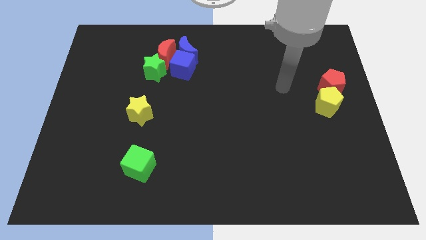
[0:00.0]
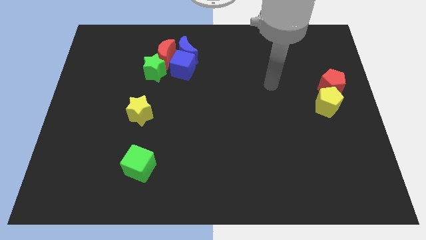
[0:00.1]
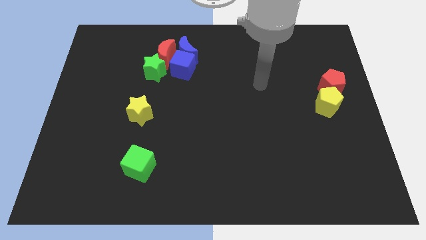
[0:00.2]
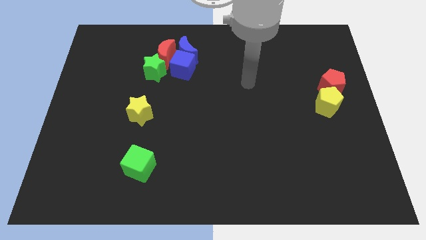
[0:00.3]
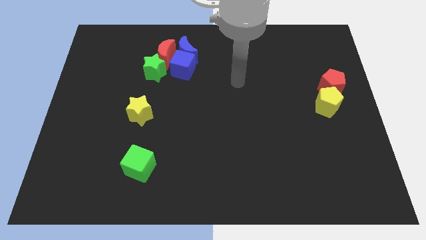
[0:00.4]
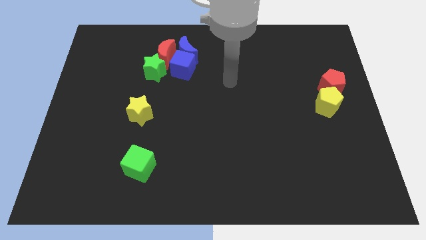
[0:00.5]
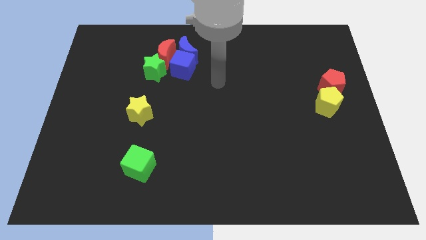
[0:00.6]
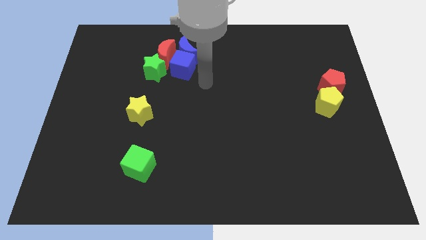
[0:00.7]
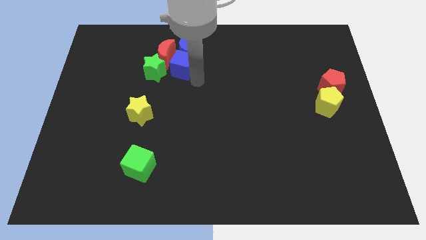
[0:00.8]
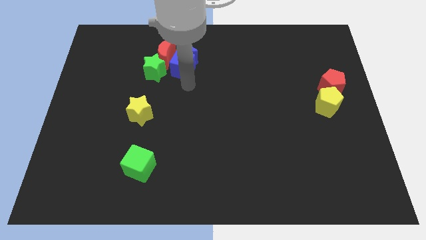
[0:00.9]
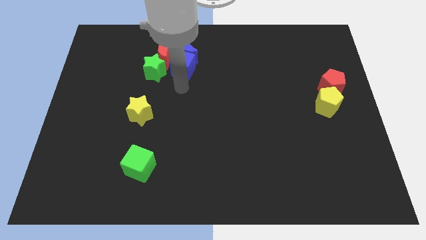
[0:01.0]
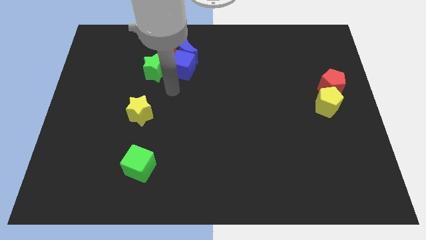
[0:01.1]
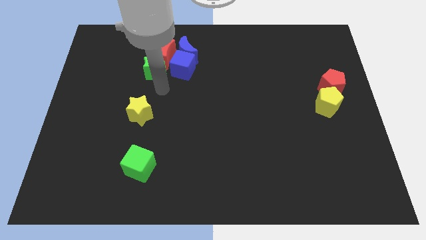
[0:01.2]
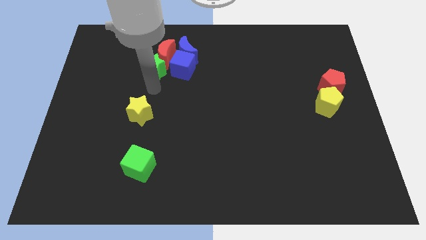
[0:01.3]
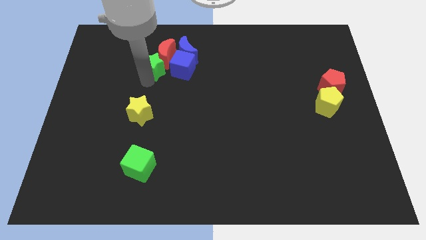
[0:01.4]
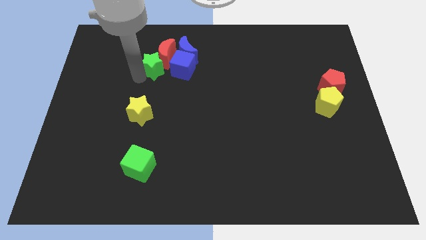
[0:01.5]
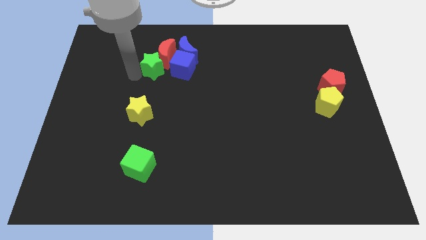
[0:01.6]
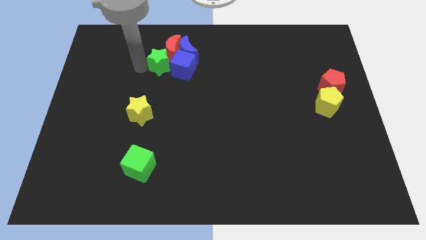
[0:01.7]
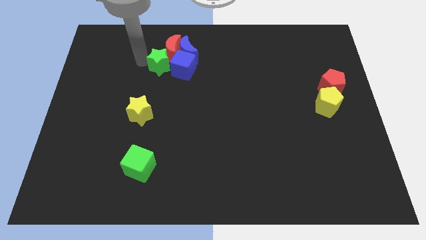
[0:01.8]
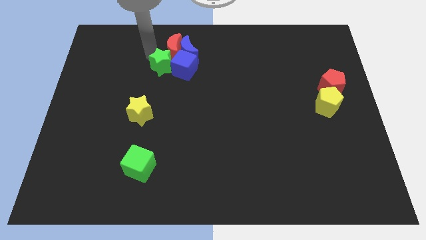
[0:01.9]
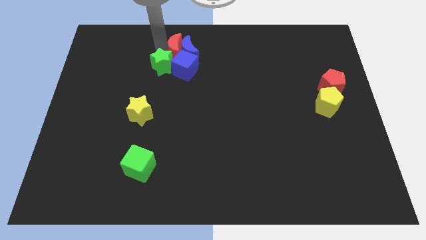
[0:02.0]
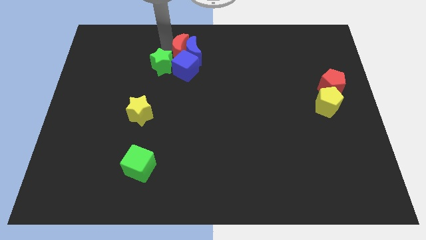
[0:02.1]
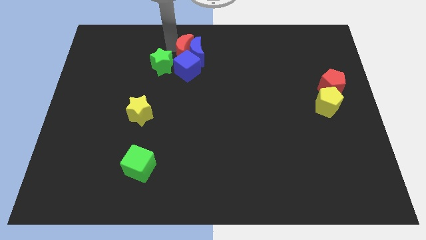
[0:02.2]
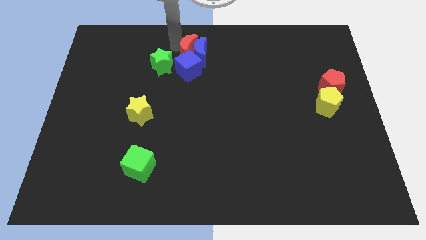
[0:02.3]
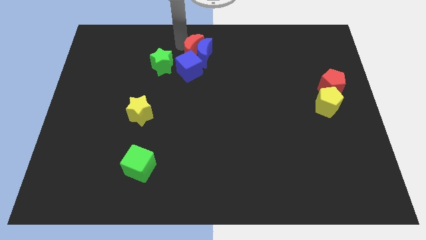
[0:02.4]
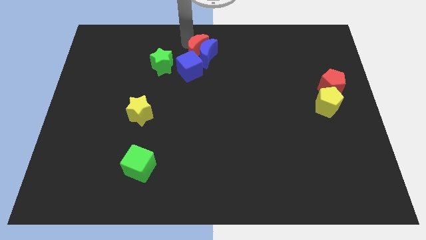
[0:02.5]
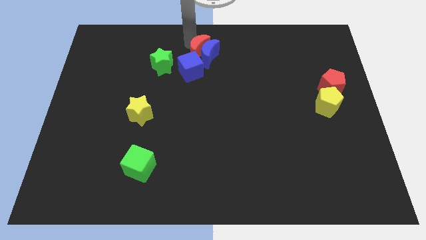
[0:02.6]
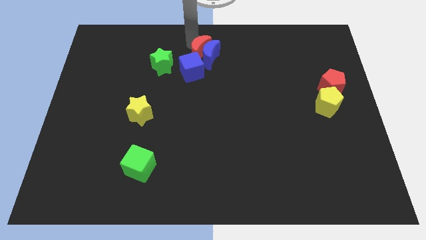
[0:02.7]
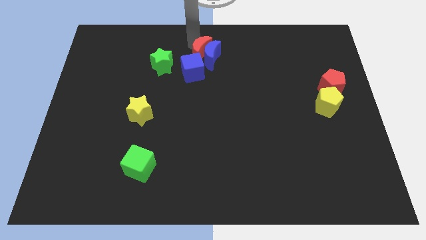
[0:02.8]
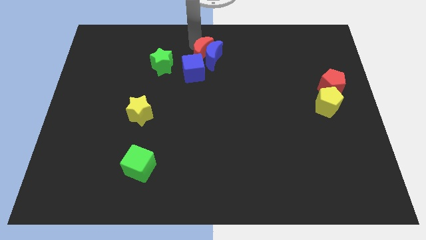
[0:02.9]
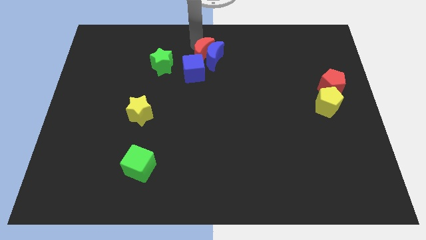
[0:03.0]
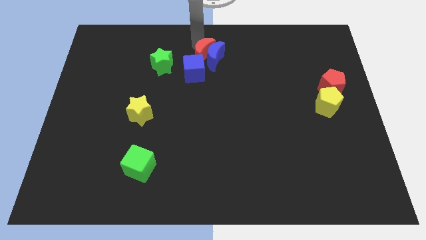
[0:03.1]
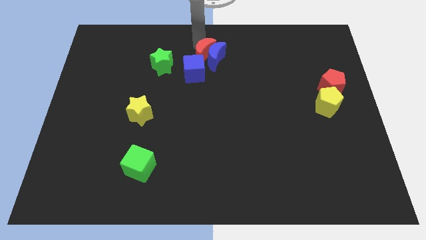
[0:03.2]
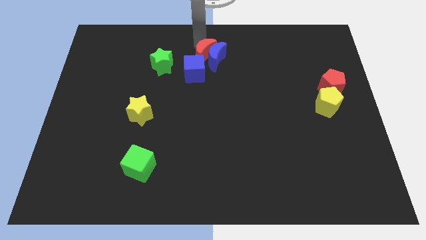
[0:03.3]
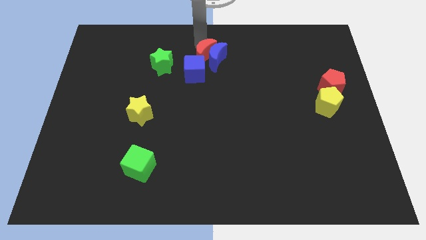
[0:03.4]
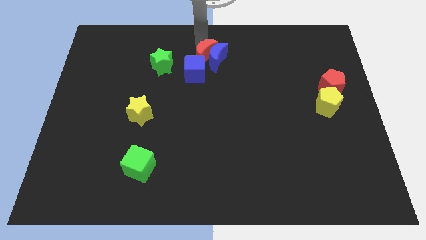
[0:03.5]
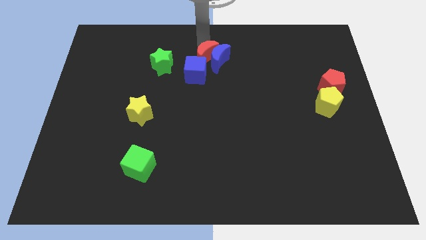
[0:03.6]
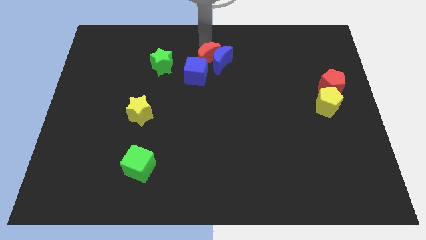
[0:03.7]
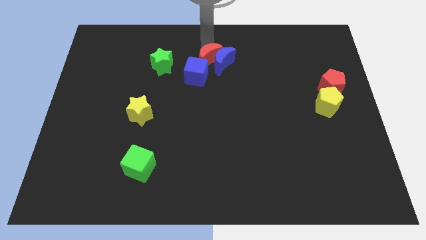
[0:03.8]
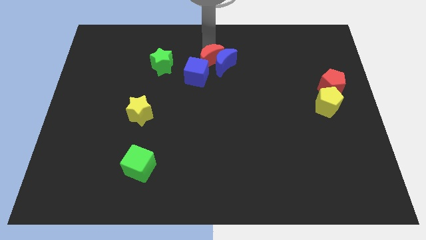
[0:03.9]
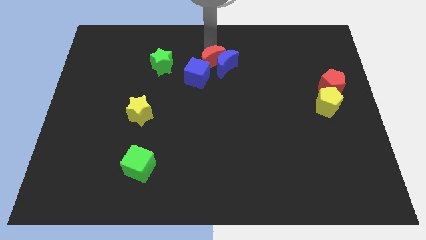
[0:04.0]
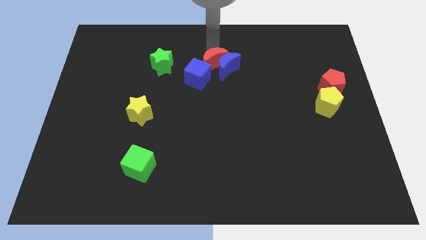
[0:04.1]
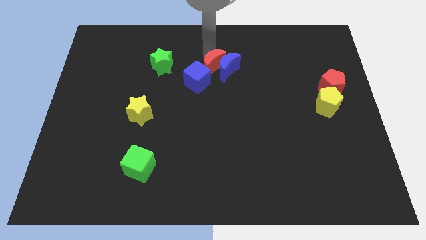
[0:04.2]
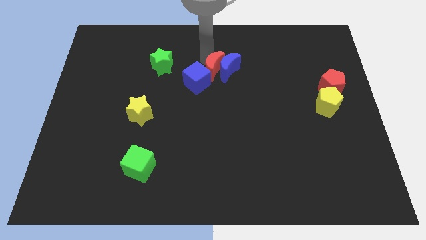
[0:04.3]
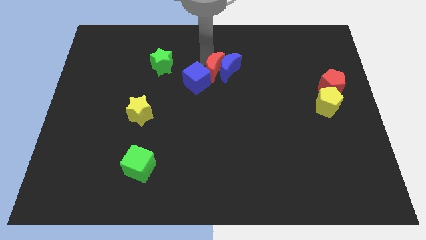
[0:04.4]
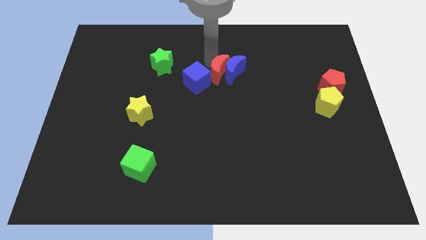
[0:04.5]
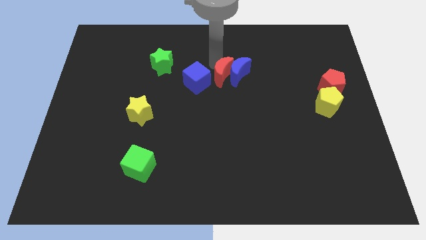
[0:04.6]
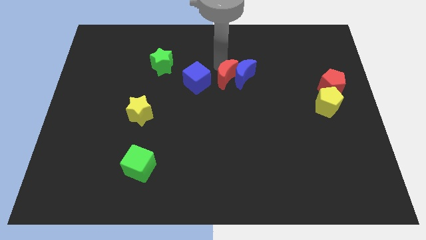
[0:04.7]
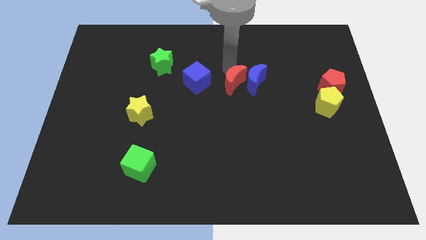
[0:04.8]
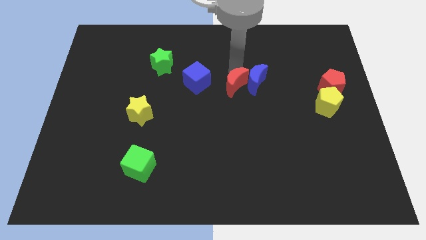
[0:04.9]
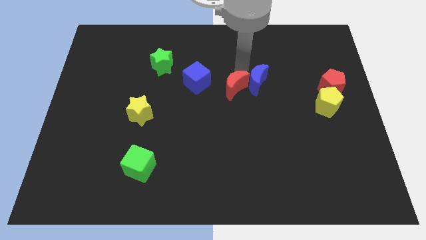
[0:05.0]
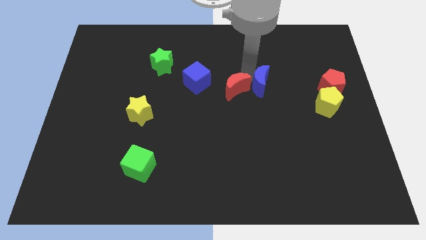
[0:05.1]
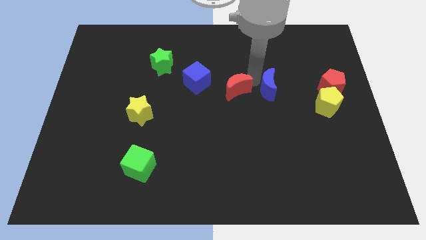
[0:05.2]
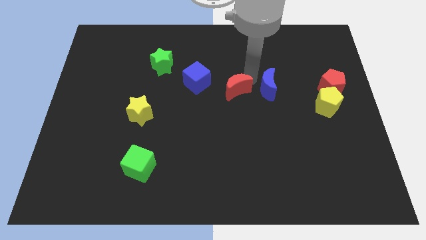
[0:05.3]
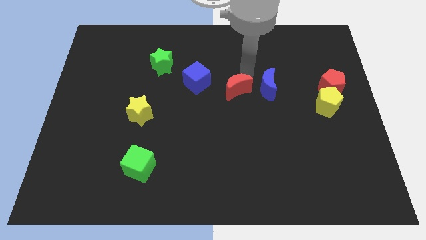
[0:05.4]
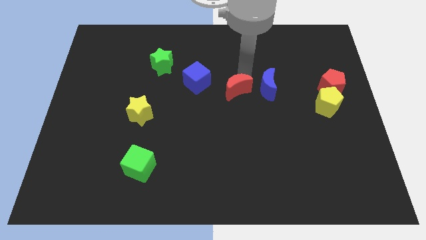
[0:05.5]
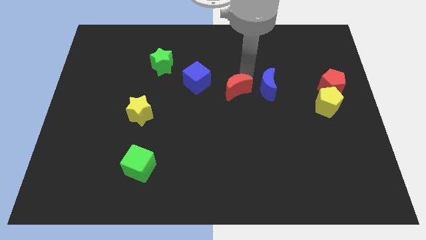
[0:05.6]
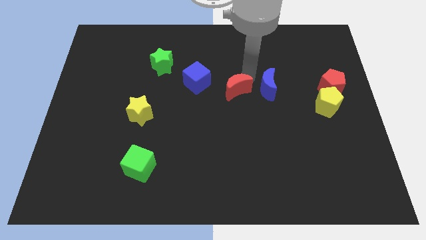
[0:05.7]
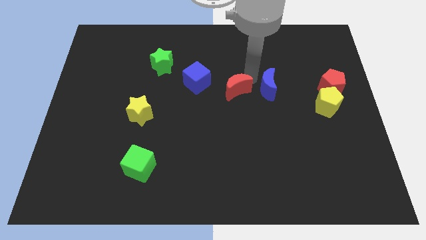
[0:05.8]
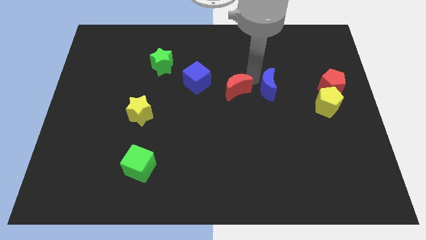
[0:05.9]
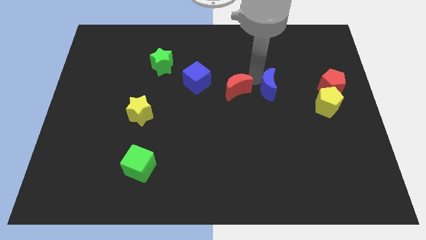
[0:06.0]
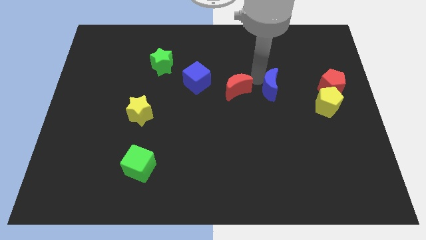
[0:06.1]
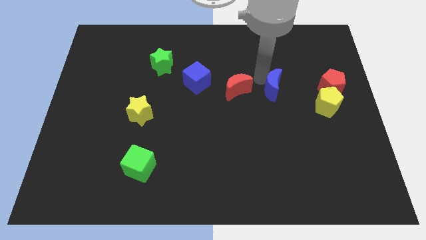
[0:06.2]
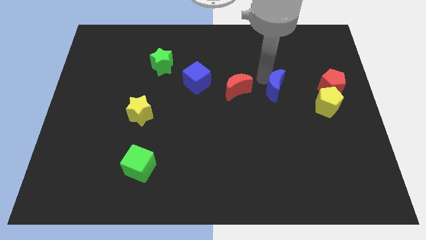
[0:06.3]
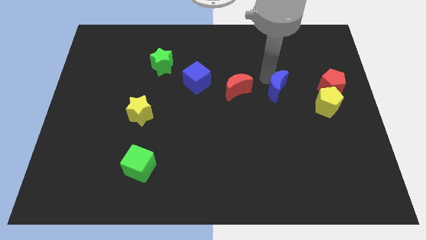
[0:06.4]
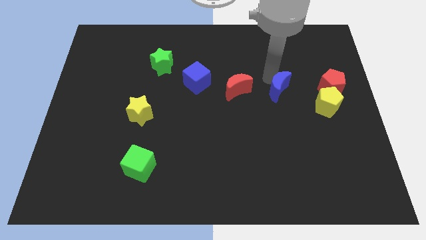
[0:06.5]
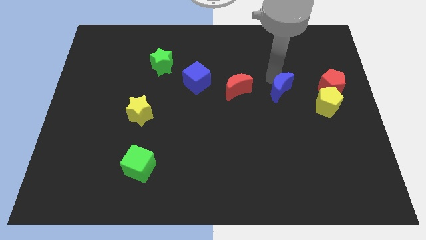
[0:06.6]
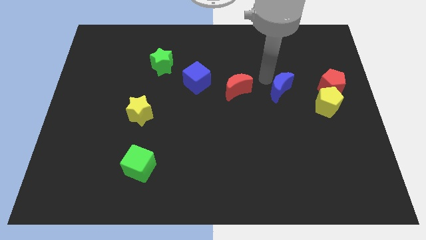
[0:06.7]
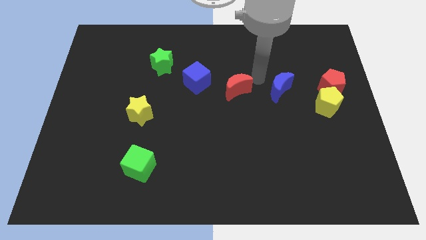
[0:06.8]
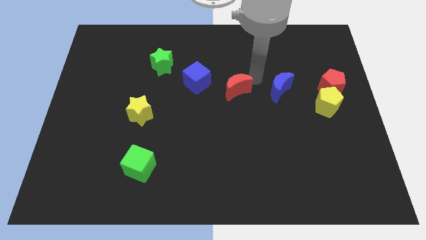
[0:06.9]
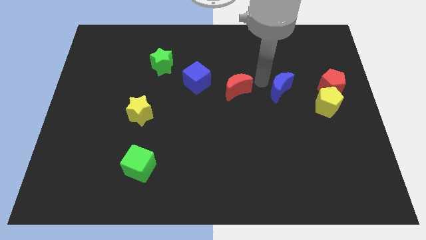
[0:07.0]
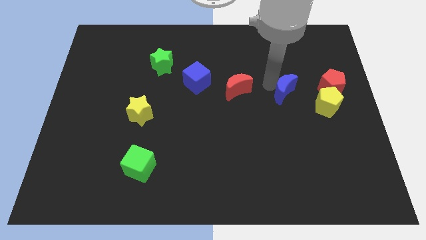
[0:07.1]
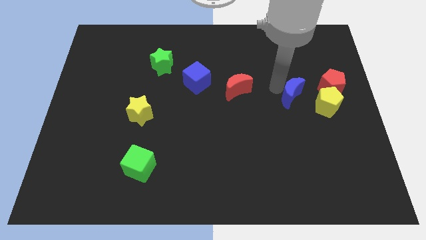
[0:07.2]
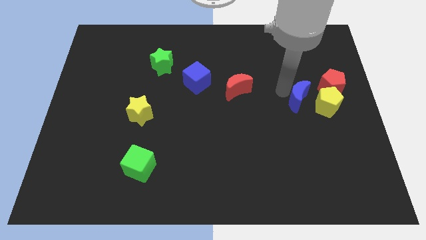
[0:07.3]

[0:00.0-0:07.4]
move the blue moon to the bottom left side of the red pentagon

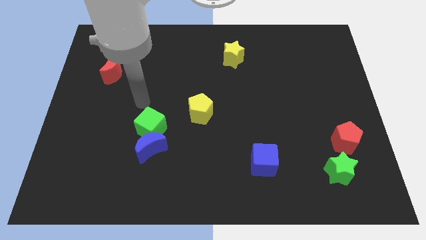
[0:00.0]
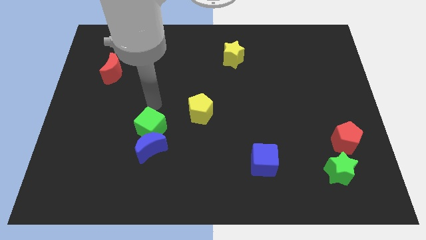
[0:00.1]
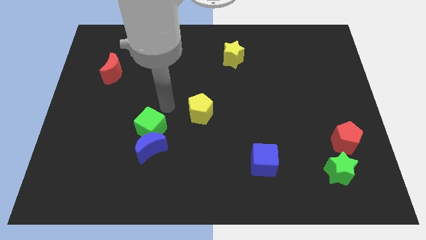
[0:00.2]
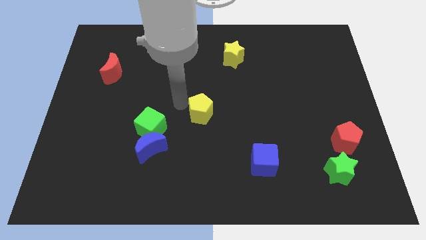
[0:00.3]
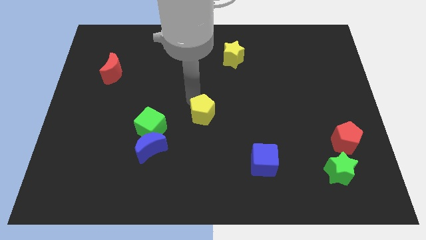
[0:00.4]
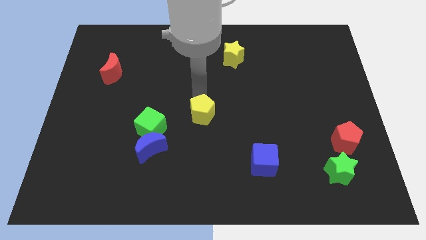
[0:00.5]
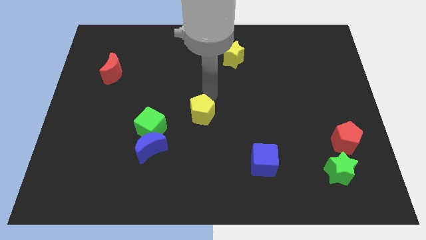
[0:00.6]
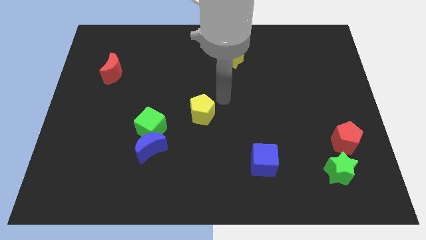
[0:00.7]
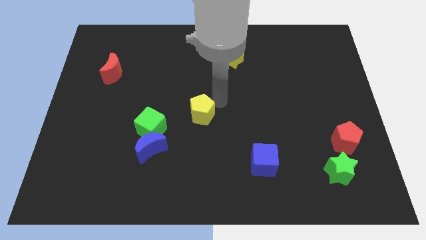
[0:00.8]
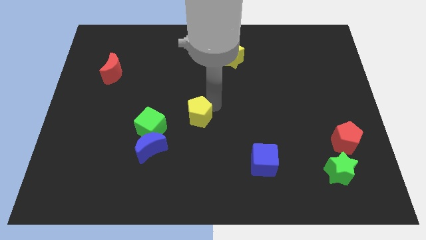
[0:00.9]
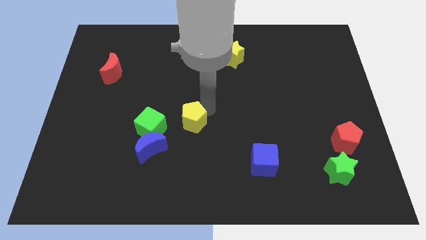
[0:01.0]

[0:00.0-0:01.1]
move the yellow pentagon diagonally up and to the right of the blue moon
